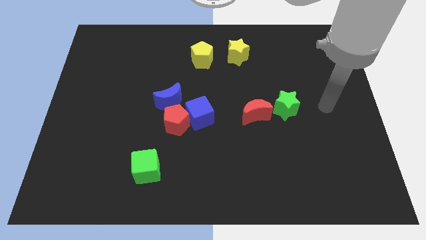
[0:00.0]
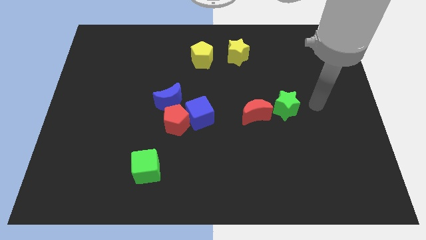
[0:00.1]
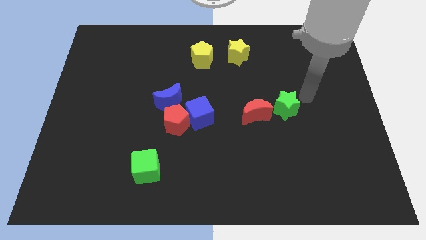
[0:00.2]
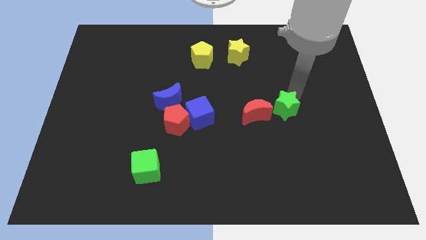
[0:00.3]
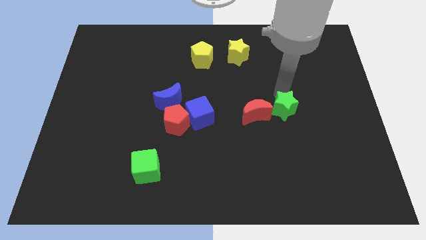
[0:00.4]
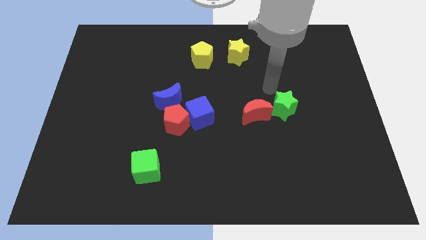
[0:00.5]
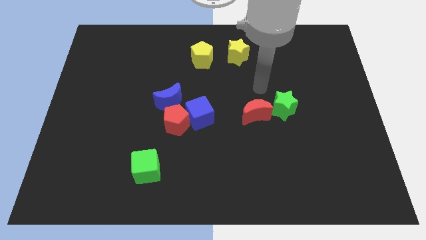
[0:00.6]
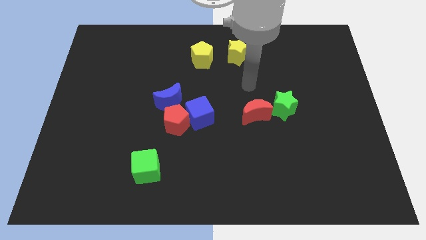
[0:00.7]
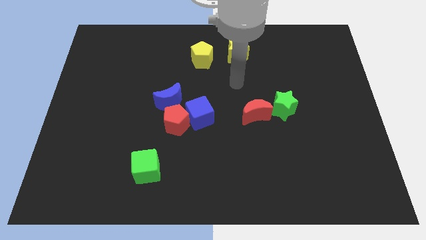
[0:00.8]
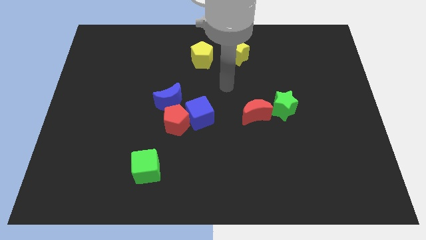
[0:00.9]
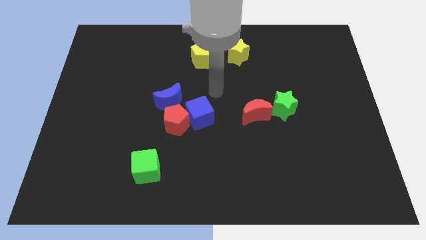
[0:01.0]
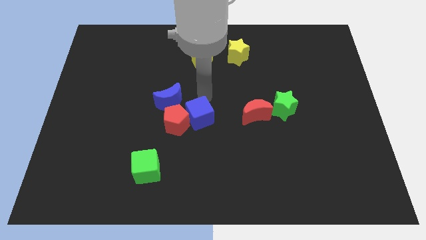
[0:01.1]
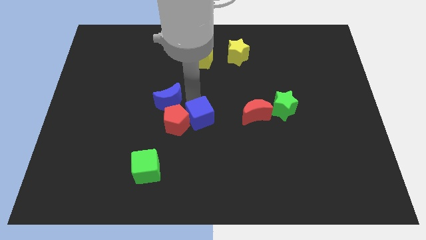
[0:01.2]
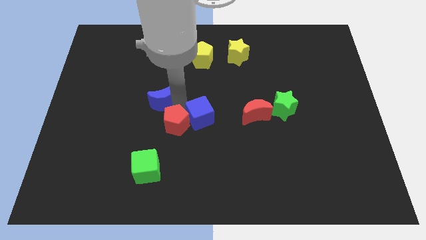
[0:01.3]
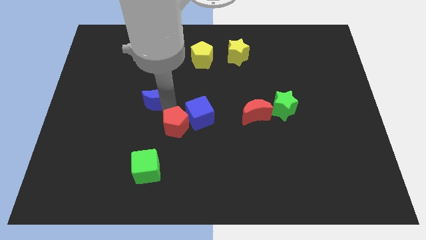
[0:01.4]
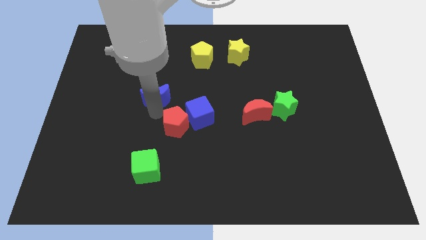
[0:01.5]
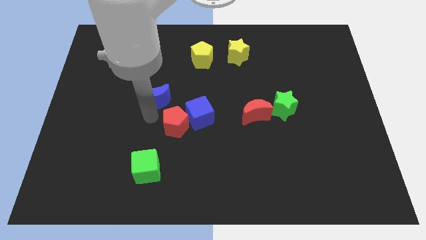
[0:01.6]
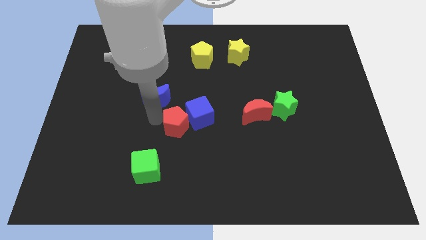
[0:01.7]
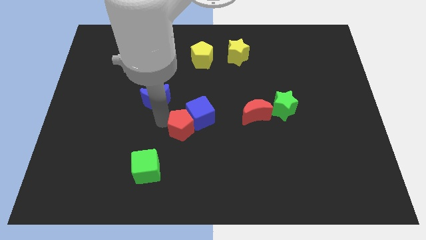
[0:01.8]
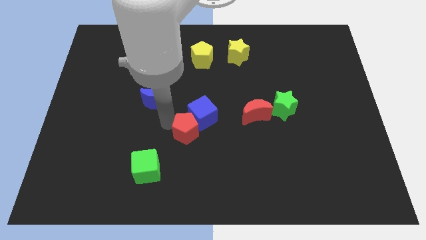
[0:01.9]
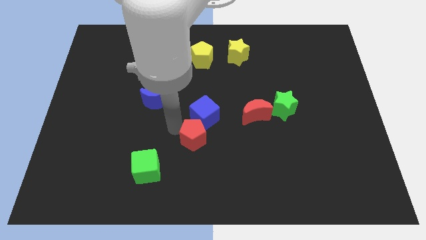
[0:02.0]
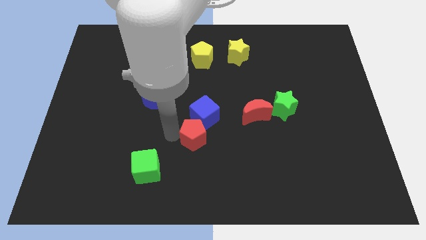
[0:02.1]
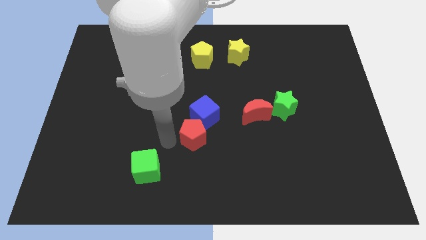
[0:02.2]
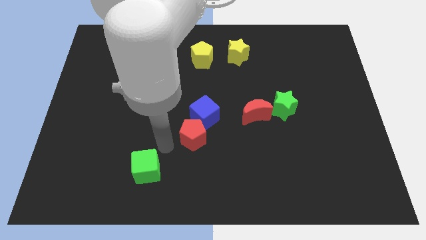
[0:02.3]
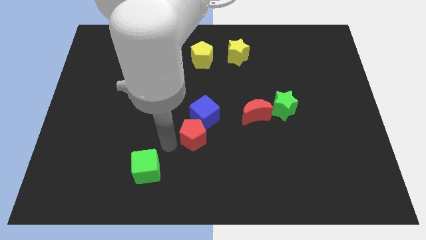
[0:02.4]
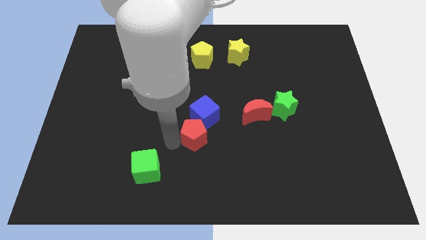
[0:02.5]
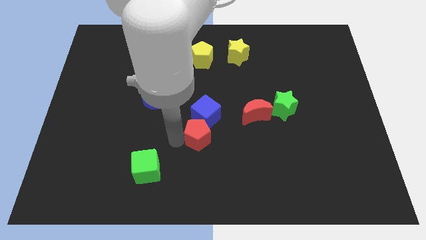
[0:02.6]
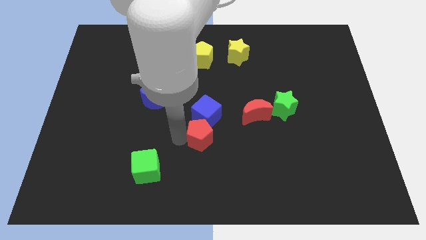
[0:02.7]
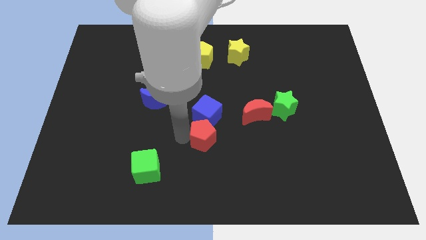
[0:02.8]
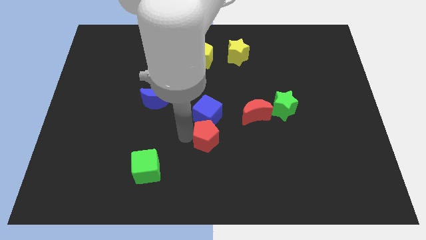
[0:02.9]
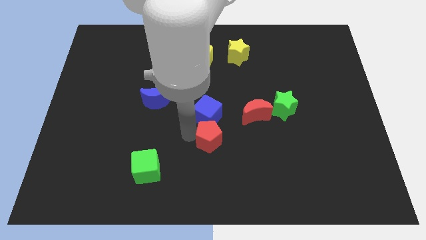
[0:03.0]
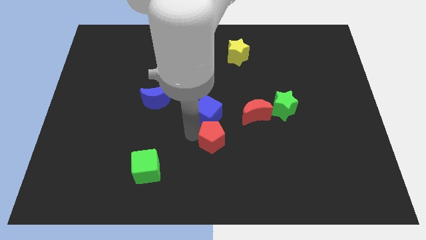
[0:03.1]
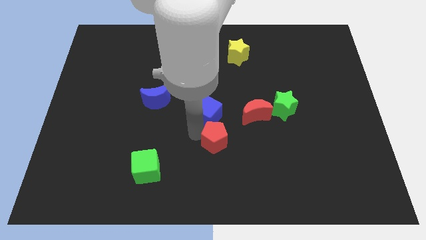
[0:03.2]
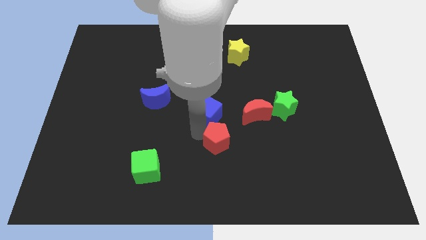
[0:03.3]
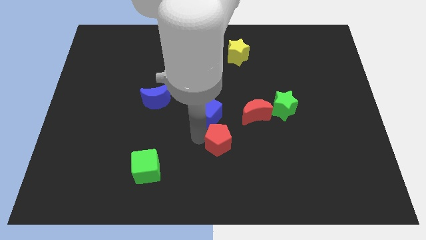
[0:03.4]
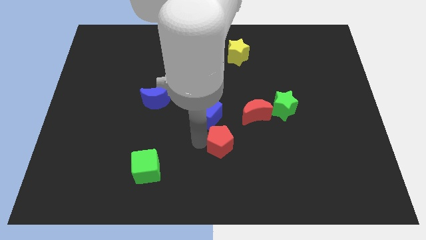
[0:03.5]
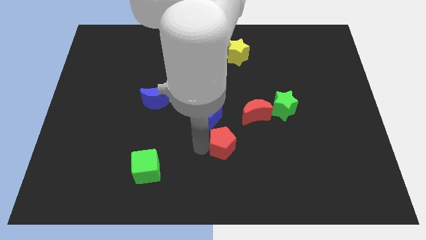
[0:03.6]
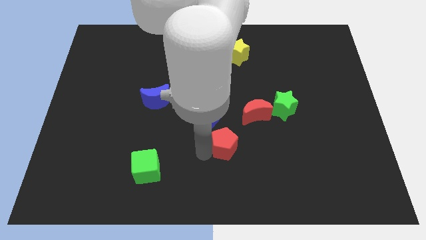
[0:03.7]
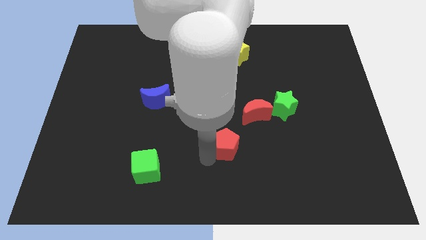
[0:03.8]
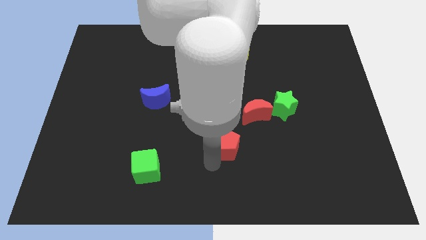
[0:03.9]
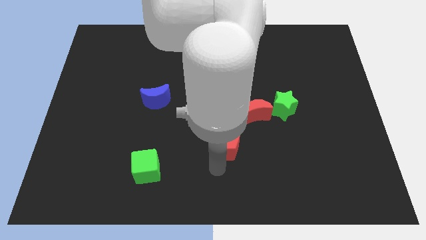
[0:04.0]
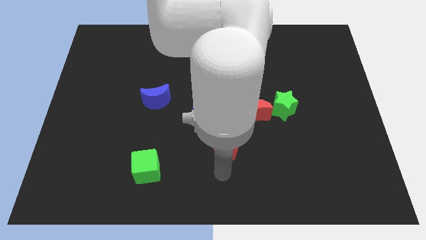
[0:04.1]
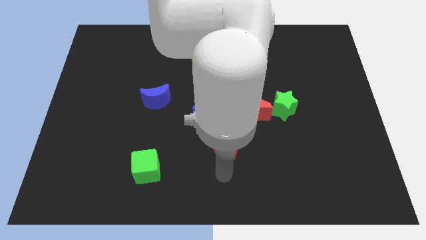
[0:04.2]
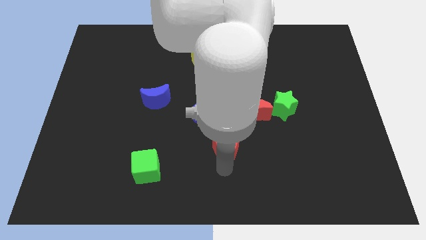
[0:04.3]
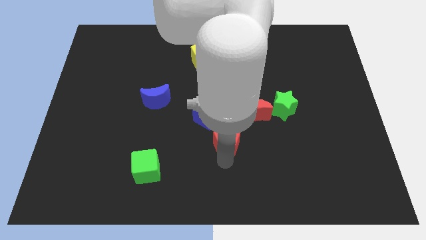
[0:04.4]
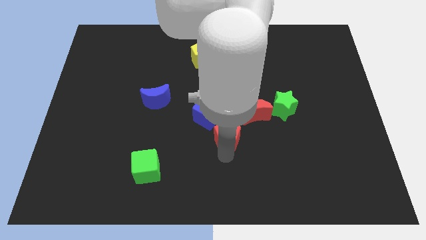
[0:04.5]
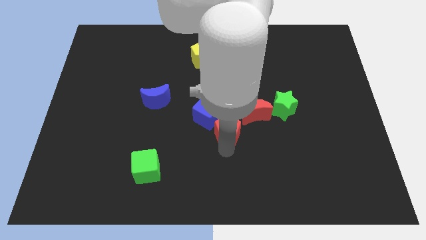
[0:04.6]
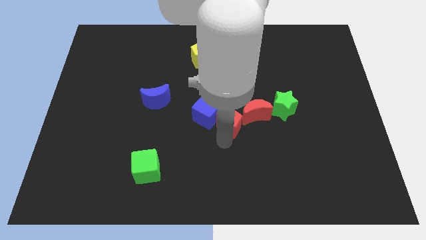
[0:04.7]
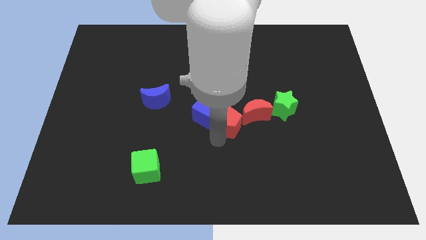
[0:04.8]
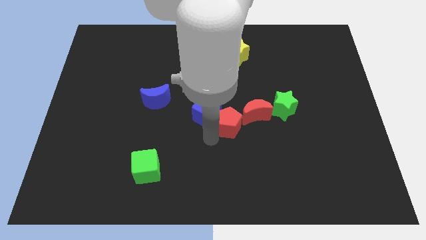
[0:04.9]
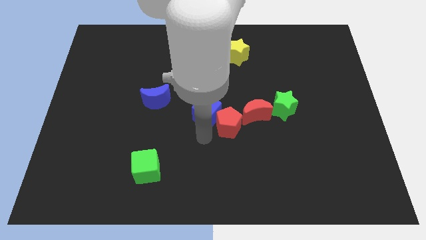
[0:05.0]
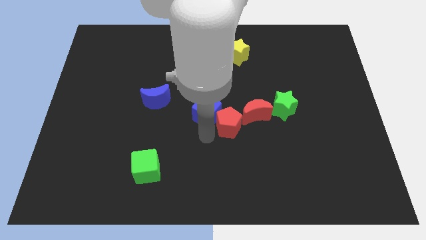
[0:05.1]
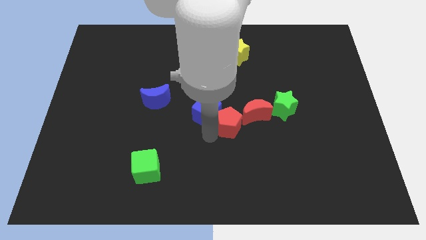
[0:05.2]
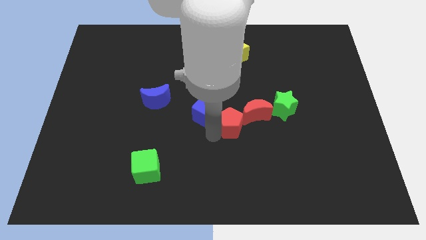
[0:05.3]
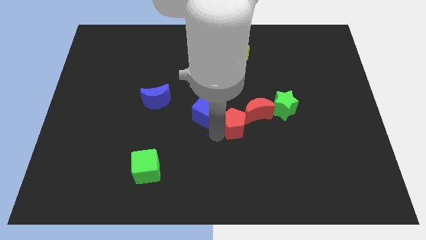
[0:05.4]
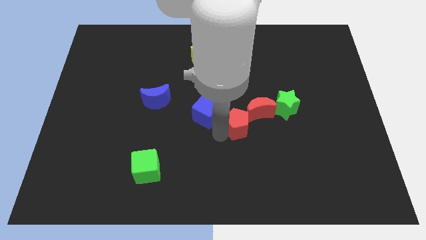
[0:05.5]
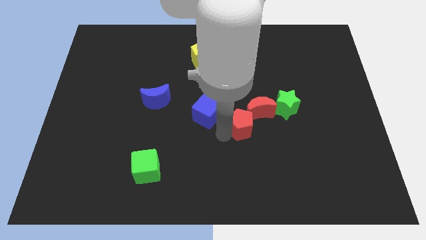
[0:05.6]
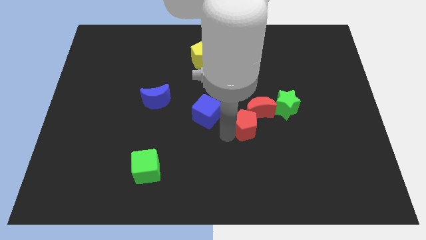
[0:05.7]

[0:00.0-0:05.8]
put the red pentagon next to the red moon

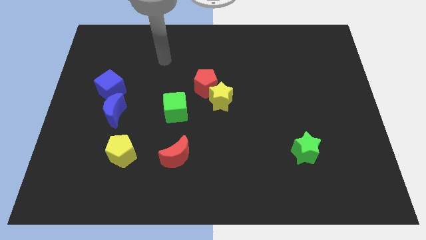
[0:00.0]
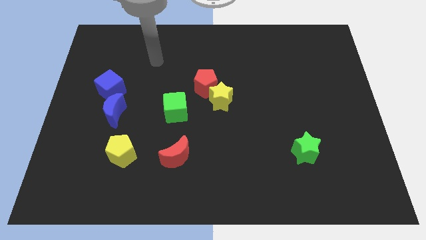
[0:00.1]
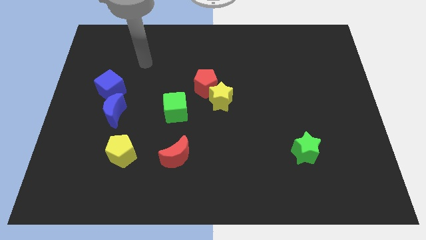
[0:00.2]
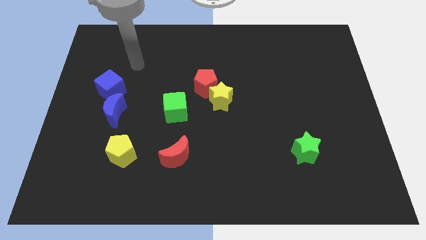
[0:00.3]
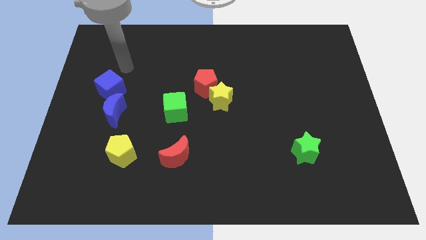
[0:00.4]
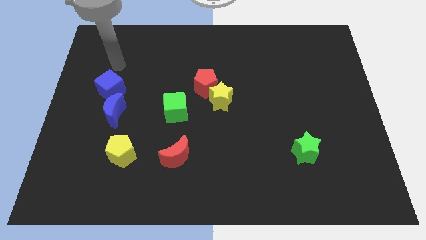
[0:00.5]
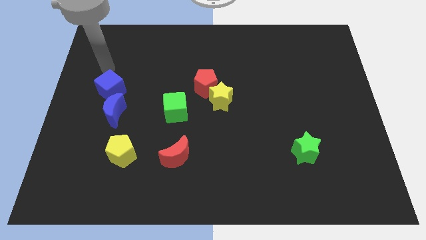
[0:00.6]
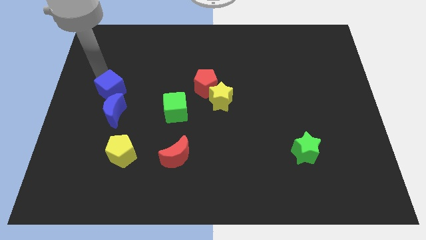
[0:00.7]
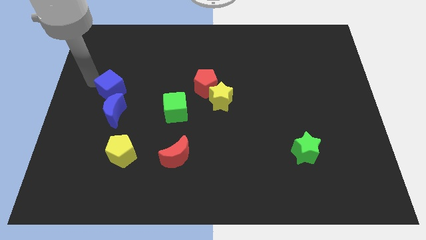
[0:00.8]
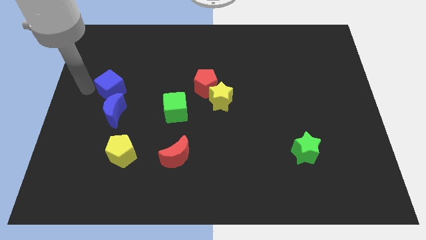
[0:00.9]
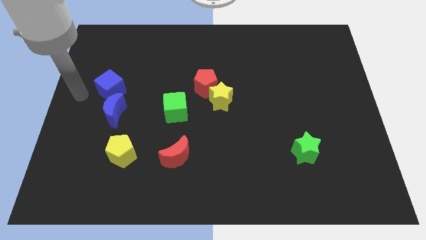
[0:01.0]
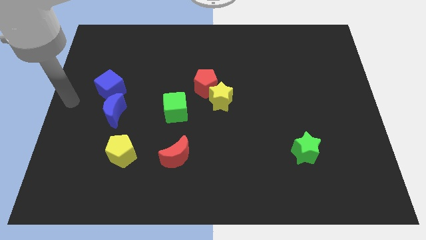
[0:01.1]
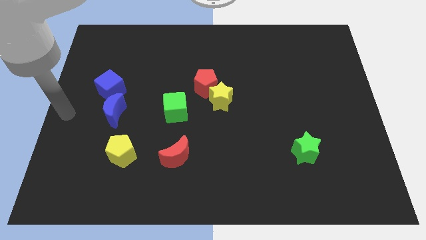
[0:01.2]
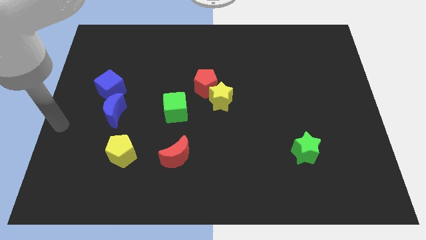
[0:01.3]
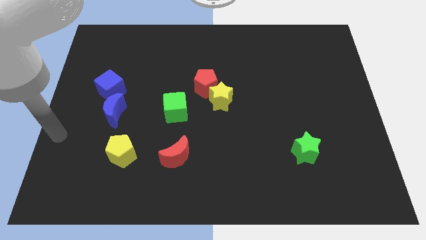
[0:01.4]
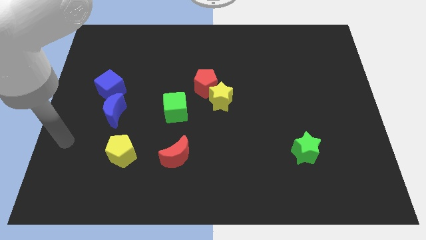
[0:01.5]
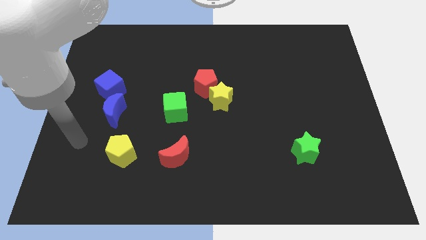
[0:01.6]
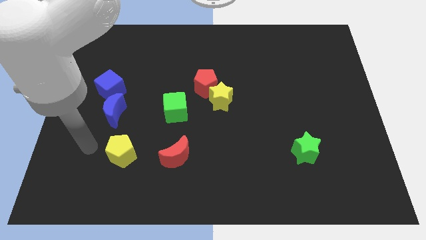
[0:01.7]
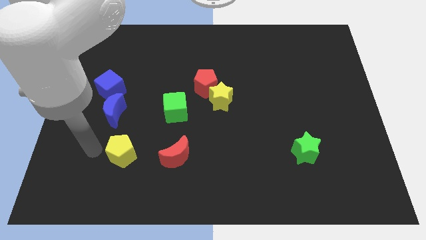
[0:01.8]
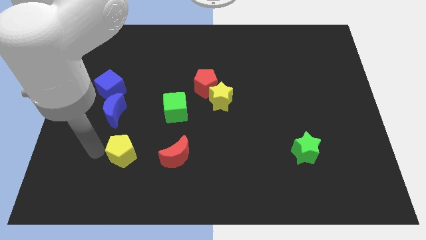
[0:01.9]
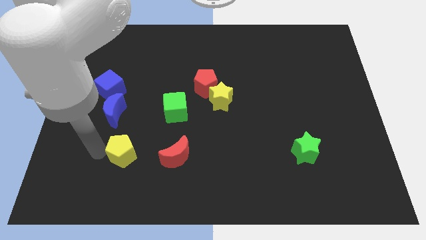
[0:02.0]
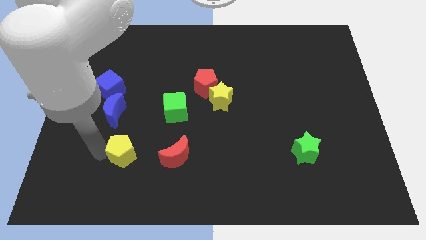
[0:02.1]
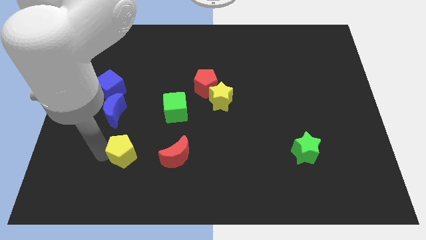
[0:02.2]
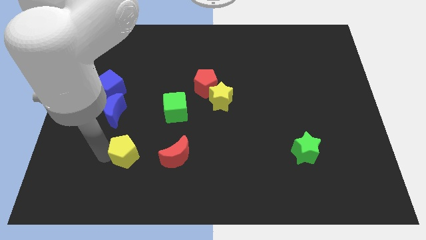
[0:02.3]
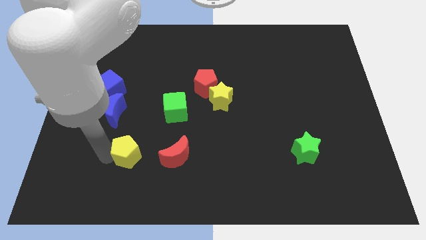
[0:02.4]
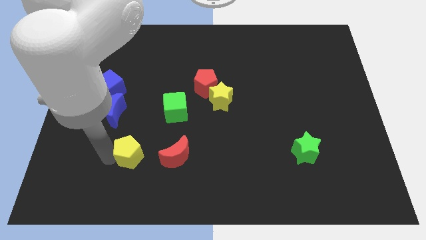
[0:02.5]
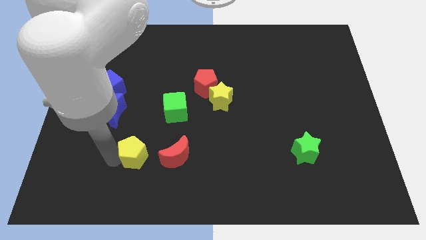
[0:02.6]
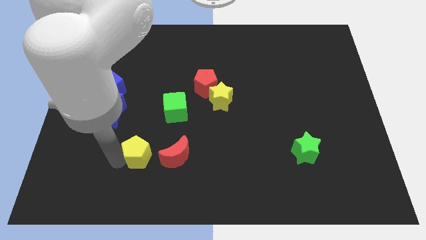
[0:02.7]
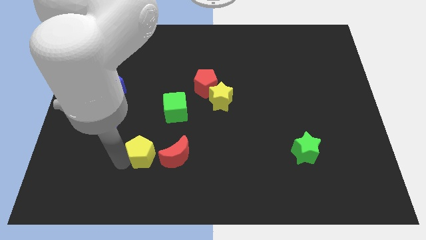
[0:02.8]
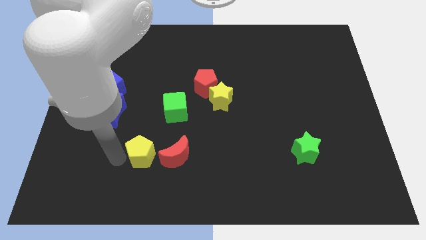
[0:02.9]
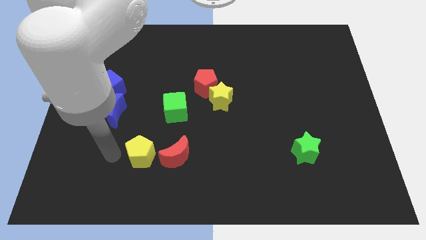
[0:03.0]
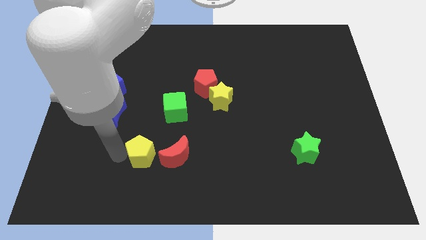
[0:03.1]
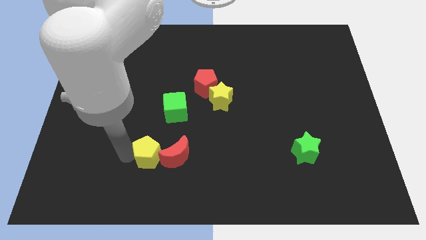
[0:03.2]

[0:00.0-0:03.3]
slide the yellow pentagon close to the red moon
